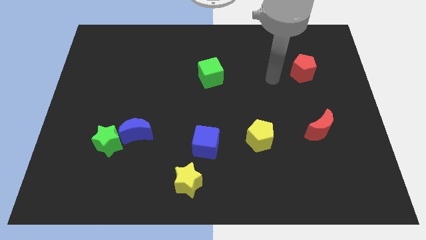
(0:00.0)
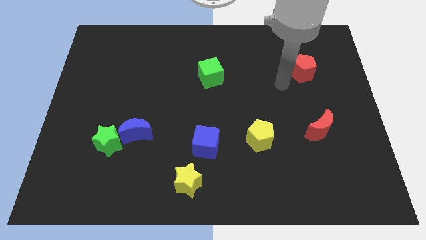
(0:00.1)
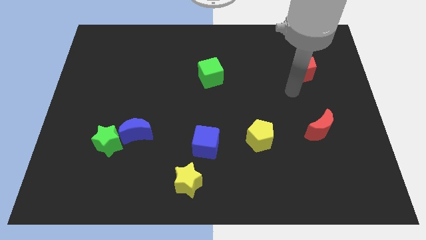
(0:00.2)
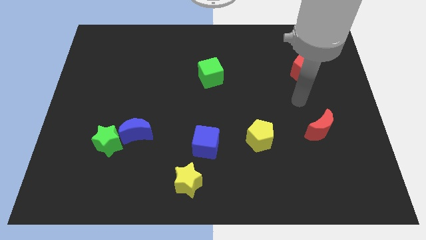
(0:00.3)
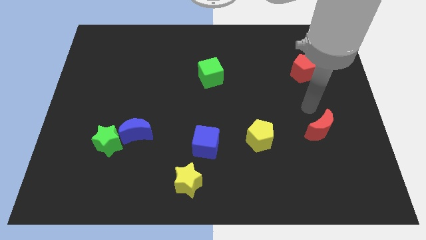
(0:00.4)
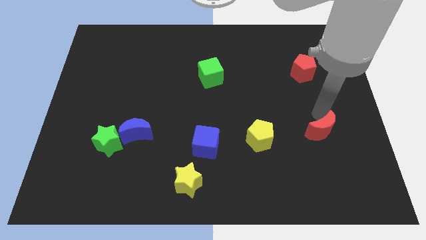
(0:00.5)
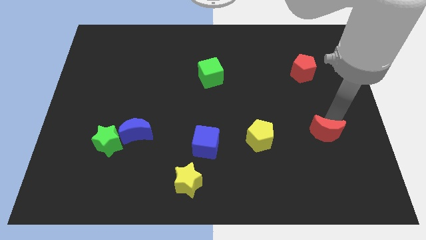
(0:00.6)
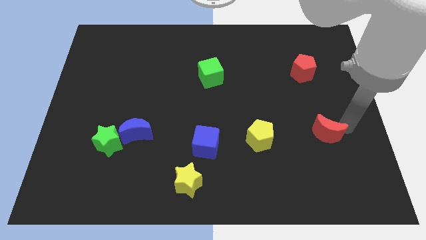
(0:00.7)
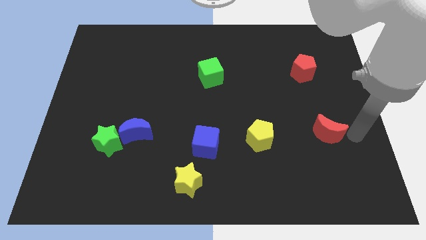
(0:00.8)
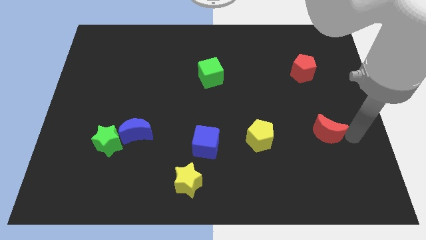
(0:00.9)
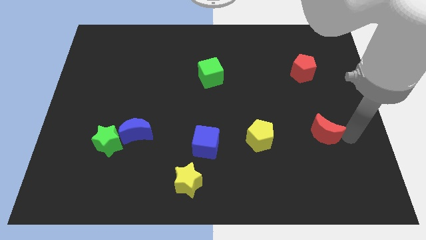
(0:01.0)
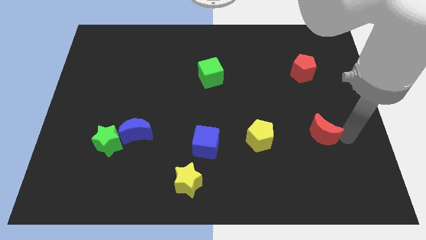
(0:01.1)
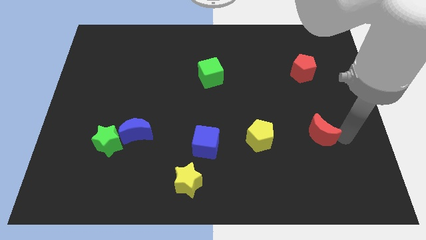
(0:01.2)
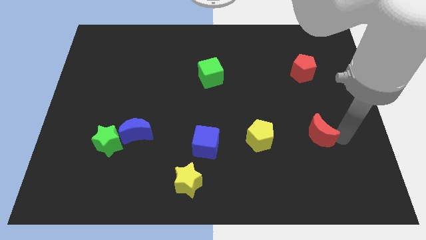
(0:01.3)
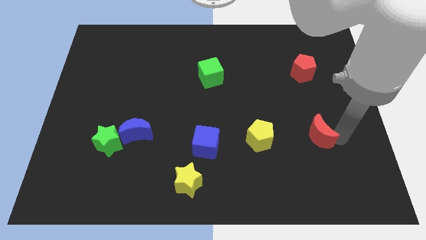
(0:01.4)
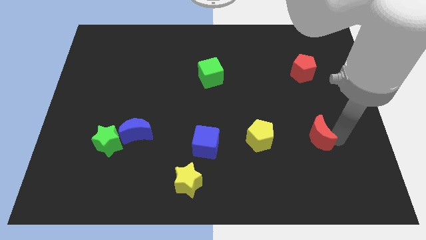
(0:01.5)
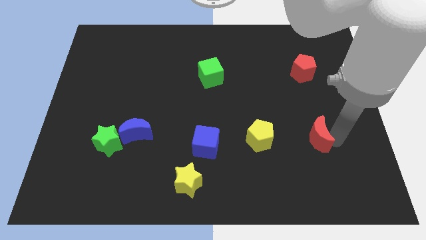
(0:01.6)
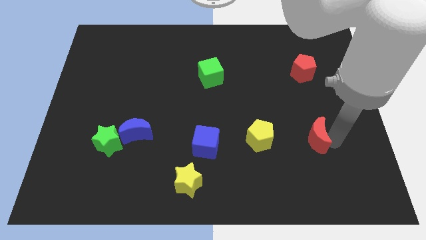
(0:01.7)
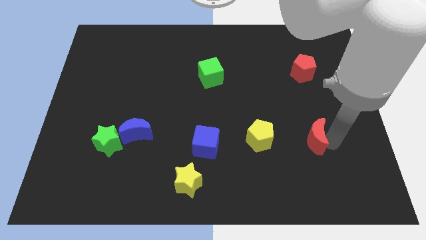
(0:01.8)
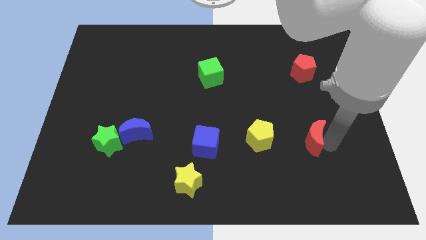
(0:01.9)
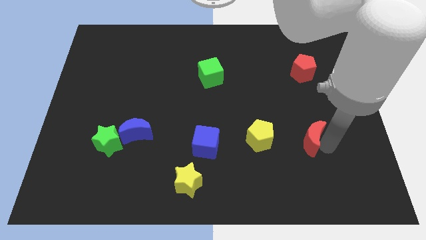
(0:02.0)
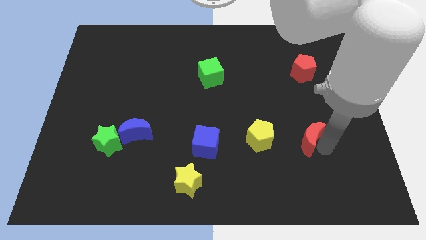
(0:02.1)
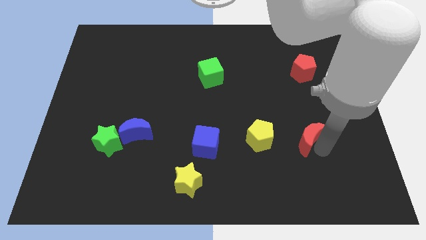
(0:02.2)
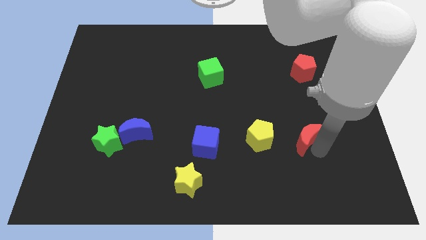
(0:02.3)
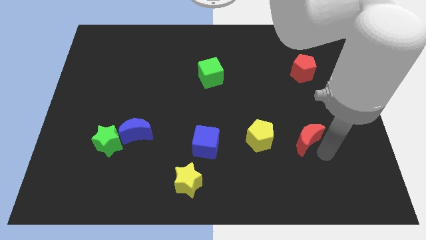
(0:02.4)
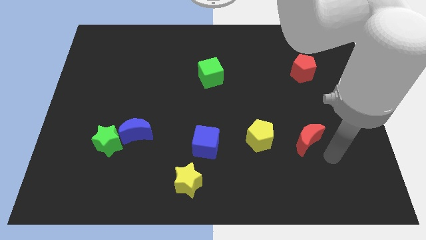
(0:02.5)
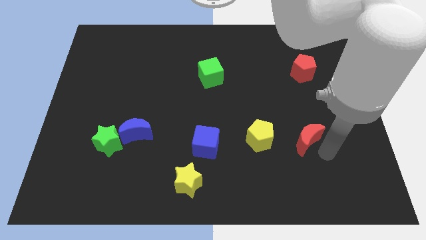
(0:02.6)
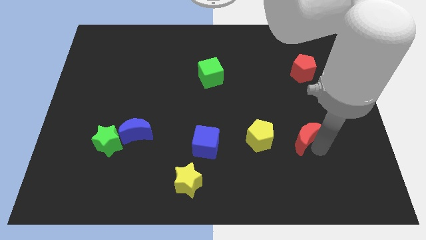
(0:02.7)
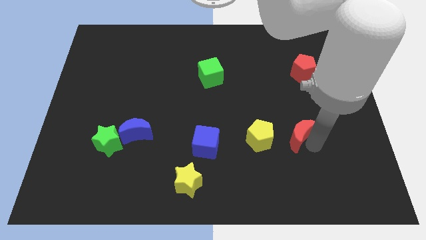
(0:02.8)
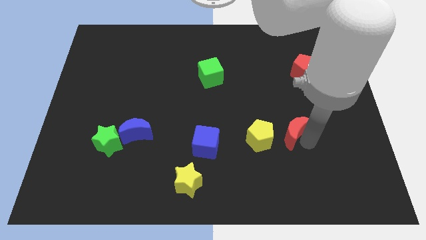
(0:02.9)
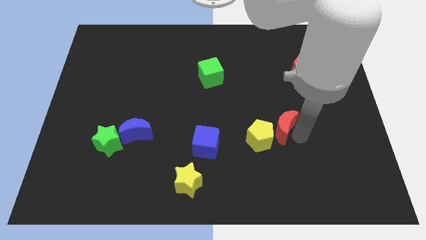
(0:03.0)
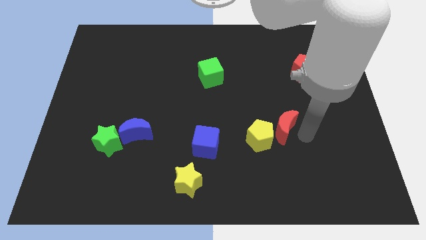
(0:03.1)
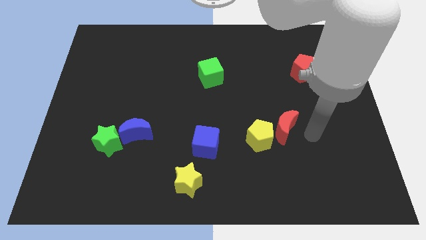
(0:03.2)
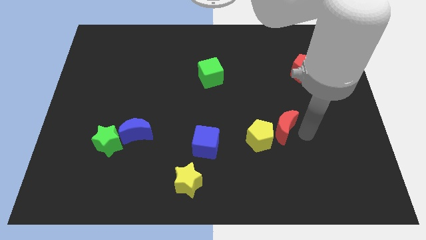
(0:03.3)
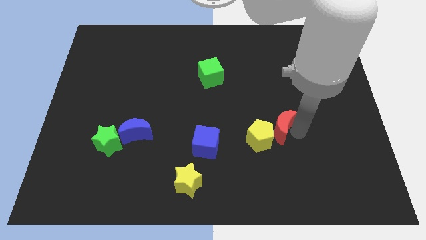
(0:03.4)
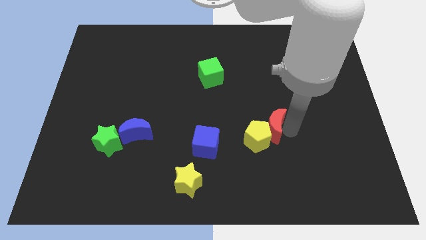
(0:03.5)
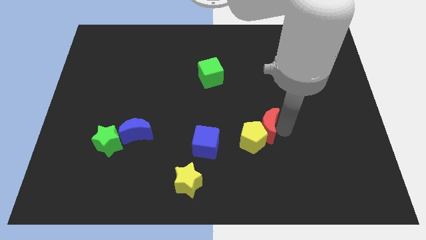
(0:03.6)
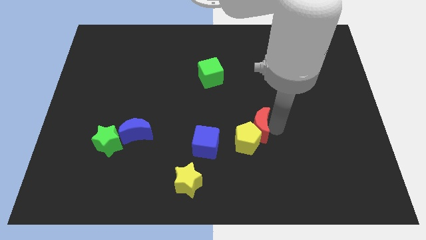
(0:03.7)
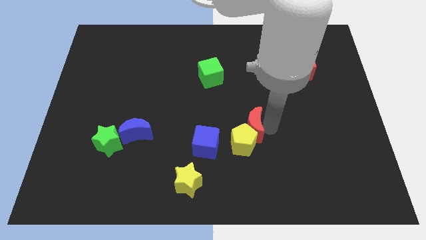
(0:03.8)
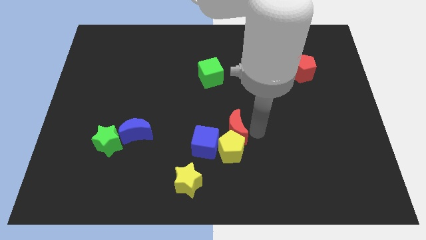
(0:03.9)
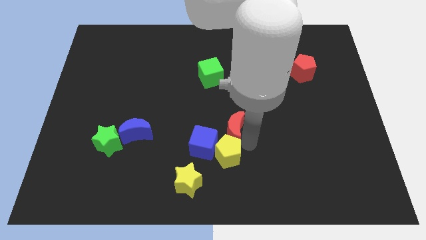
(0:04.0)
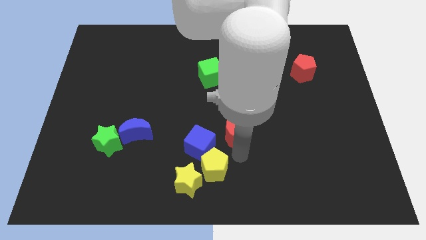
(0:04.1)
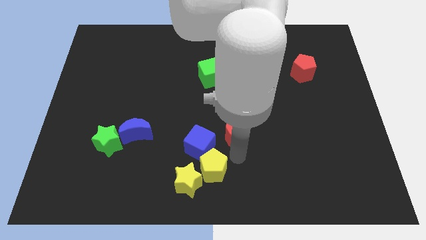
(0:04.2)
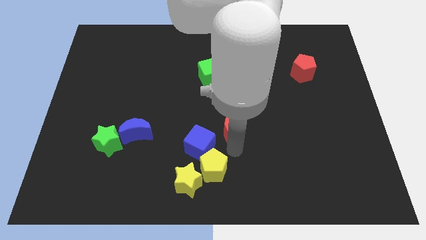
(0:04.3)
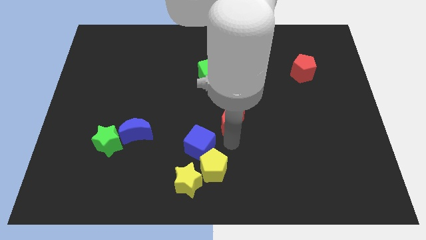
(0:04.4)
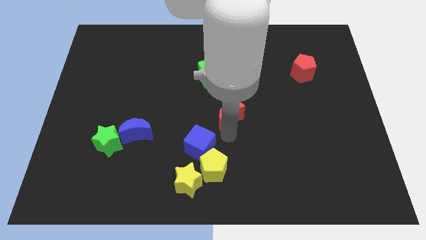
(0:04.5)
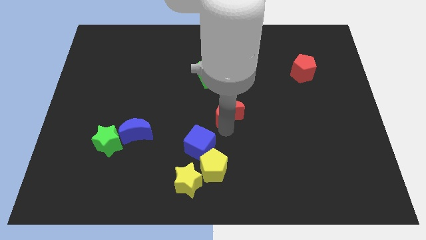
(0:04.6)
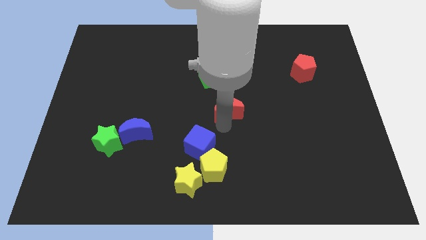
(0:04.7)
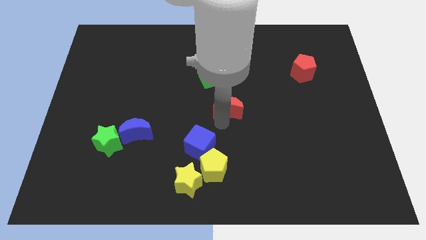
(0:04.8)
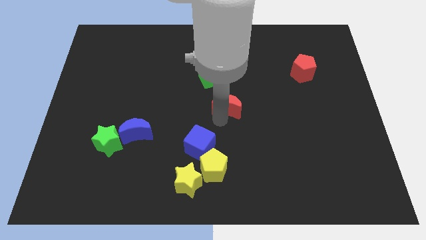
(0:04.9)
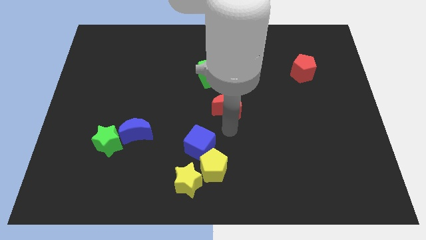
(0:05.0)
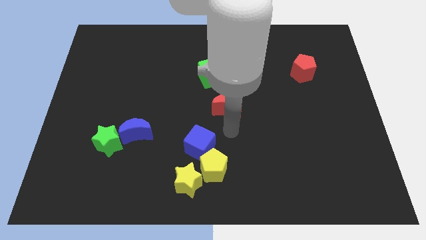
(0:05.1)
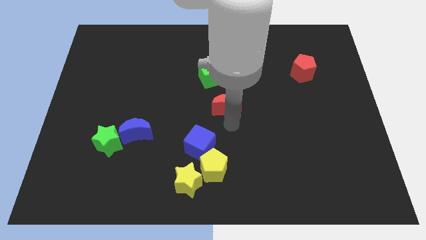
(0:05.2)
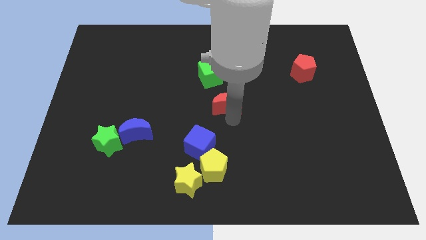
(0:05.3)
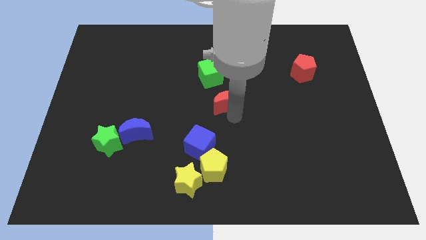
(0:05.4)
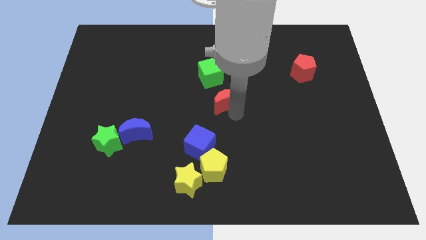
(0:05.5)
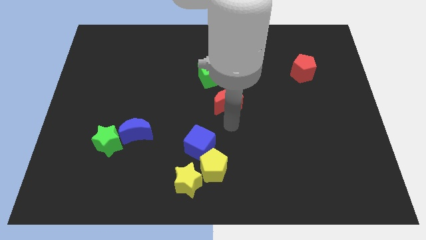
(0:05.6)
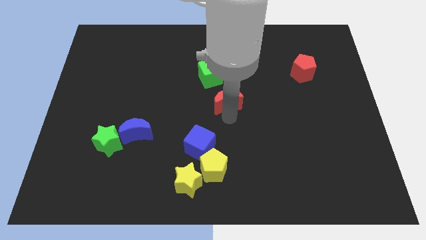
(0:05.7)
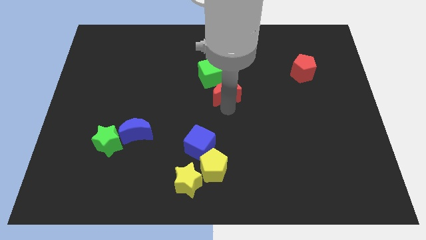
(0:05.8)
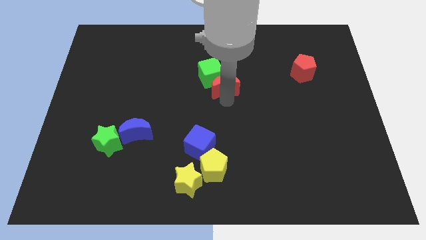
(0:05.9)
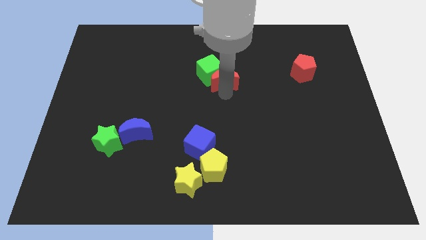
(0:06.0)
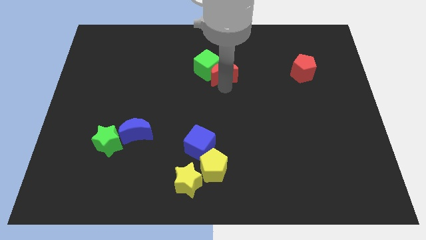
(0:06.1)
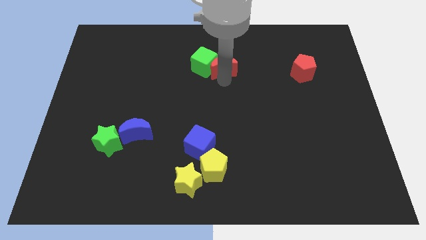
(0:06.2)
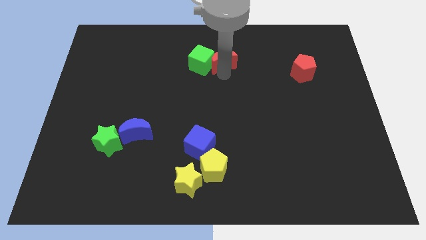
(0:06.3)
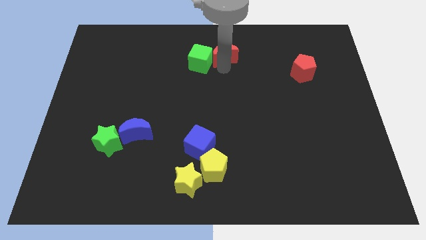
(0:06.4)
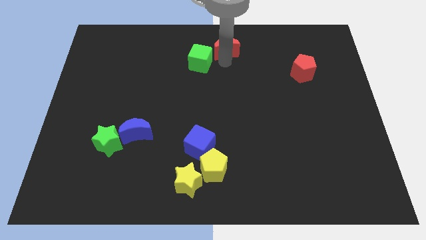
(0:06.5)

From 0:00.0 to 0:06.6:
slide the red moon to the top side
